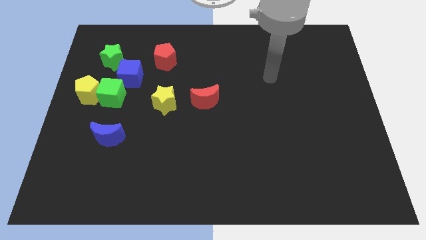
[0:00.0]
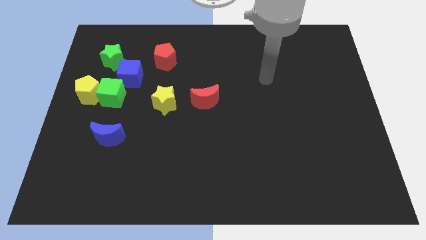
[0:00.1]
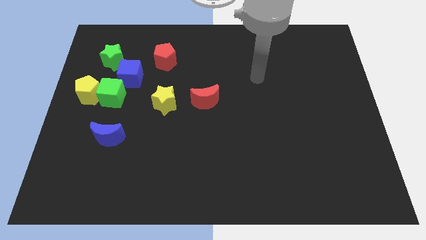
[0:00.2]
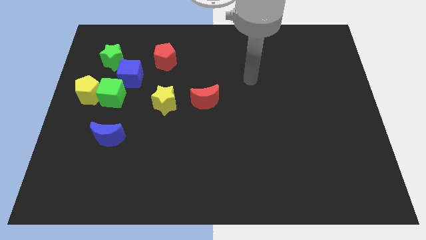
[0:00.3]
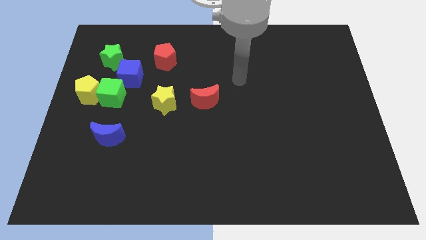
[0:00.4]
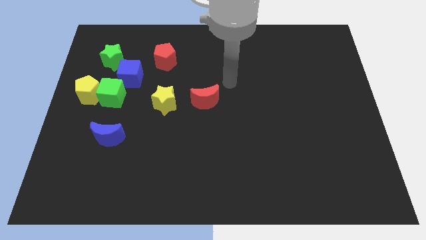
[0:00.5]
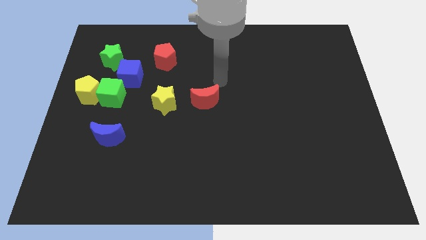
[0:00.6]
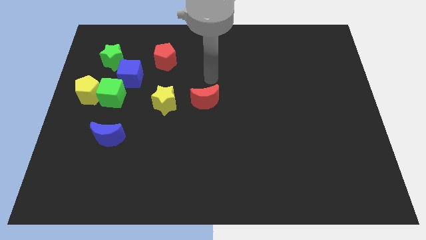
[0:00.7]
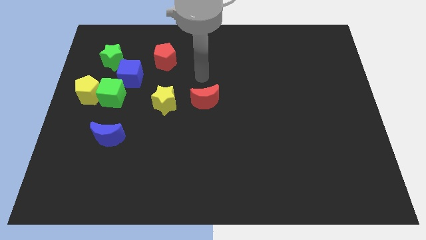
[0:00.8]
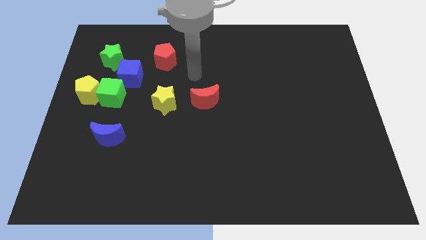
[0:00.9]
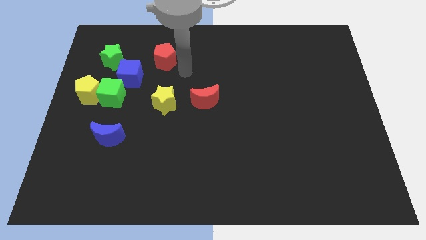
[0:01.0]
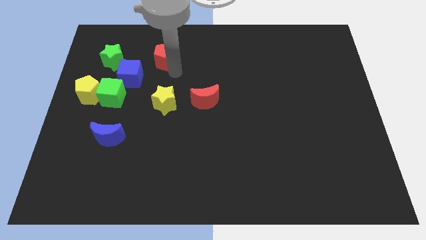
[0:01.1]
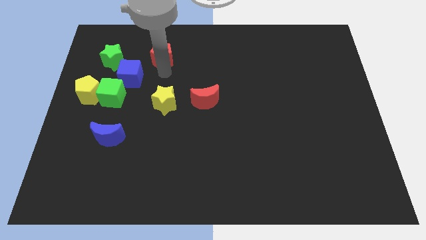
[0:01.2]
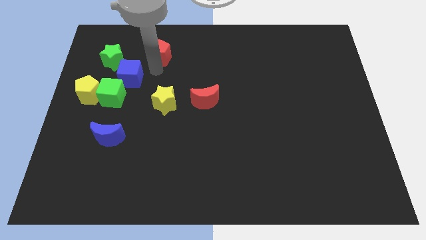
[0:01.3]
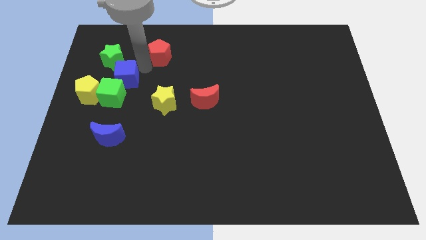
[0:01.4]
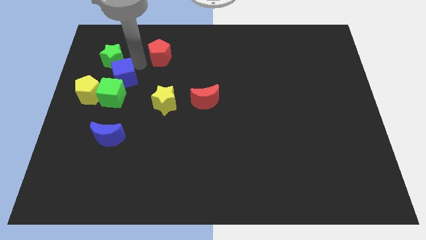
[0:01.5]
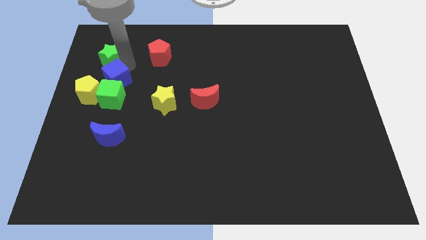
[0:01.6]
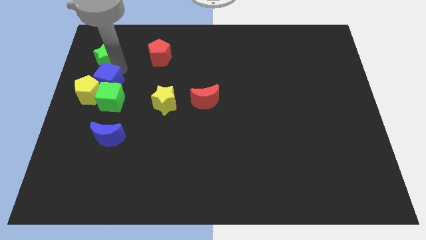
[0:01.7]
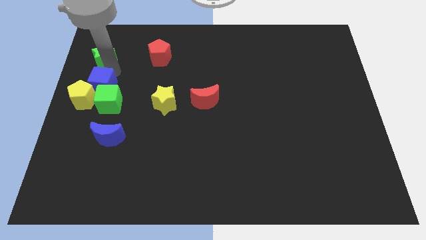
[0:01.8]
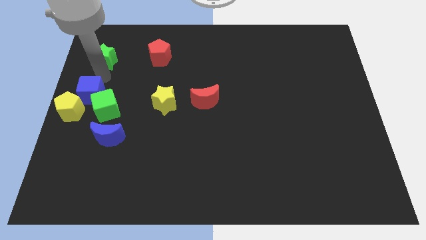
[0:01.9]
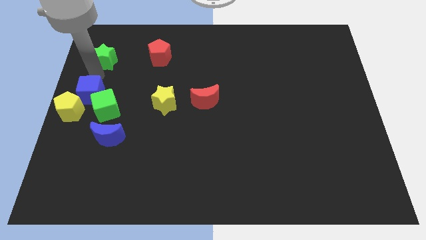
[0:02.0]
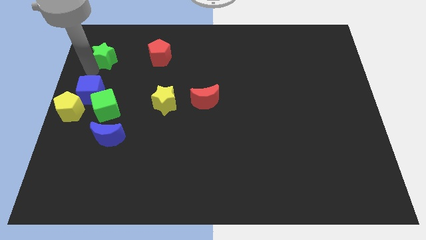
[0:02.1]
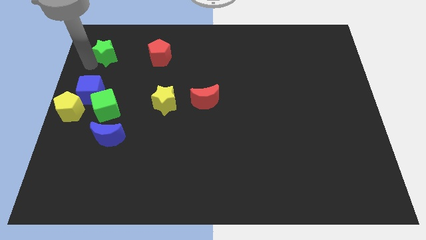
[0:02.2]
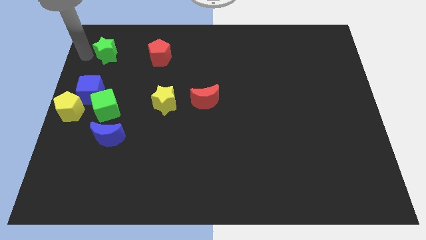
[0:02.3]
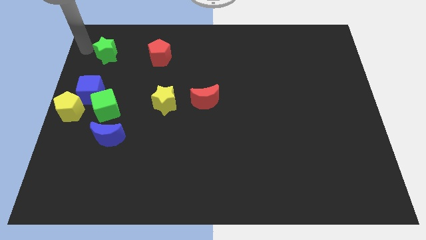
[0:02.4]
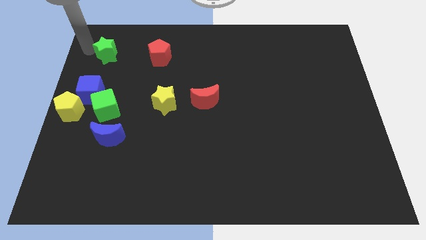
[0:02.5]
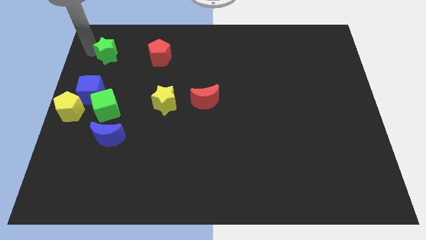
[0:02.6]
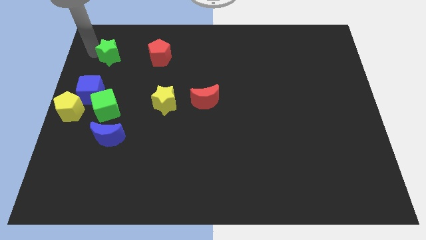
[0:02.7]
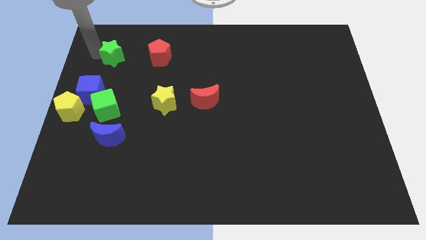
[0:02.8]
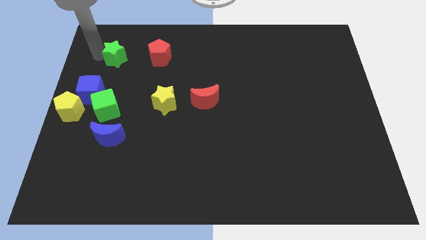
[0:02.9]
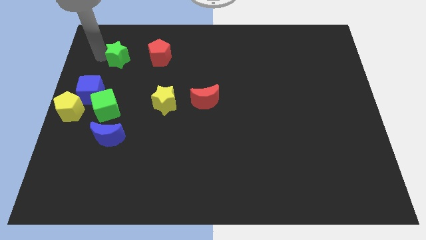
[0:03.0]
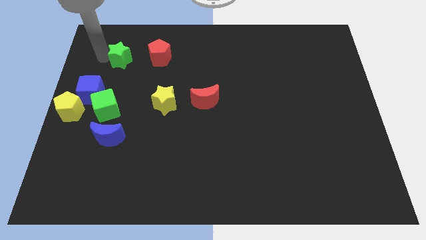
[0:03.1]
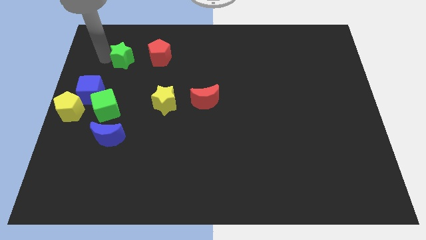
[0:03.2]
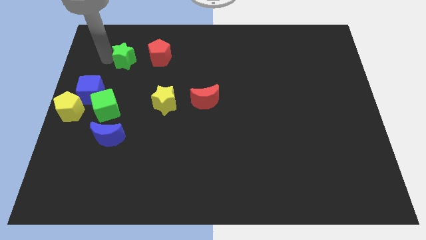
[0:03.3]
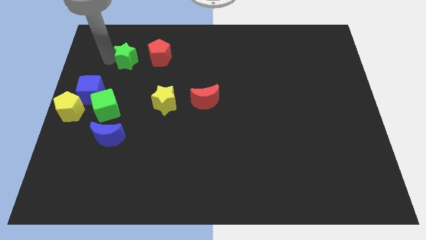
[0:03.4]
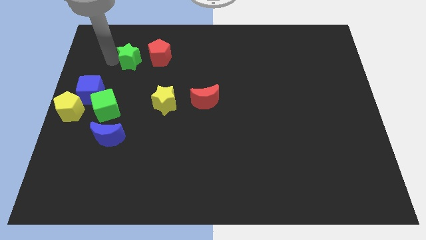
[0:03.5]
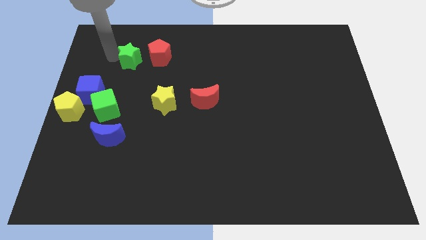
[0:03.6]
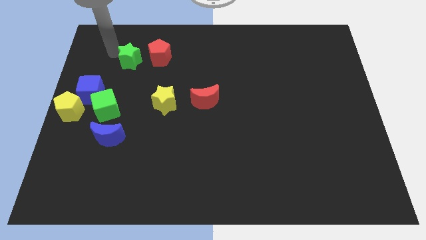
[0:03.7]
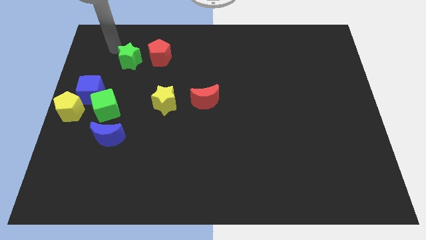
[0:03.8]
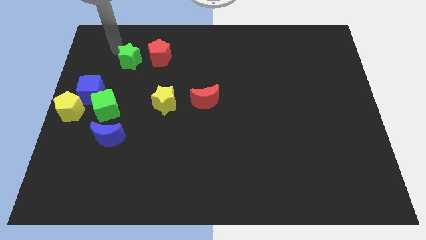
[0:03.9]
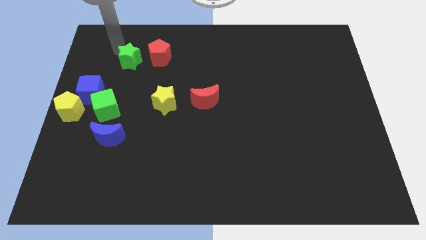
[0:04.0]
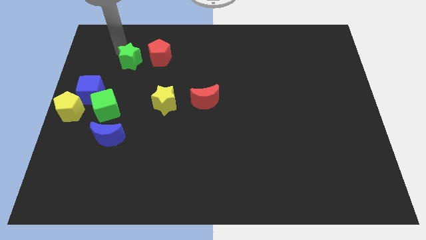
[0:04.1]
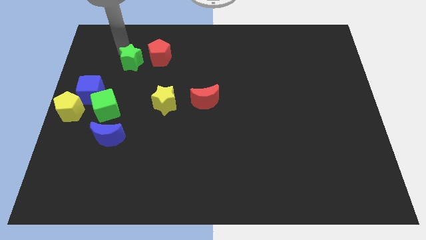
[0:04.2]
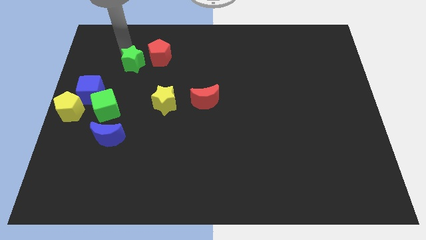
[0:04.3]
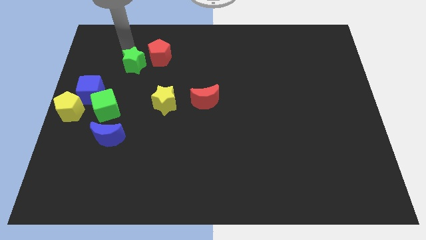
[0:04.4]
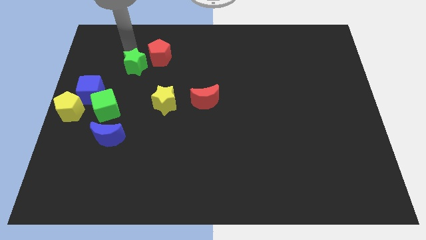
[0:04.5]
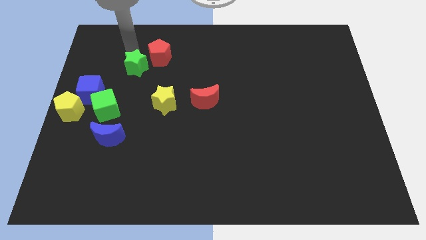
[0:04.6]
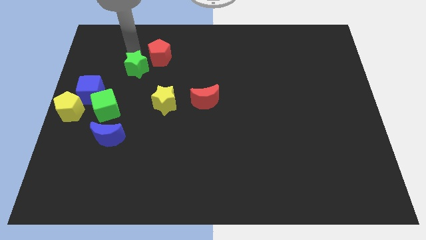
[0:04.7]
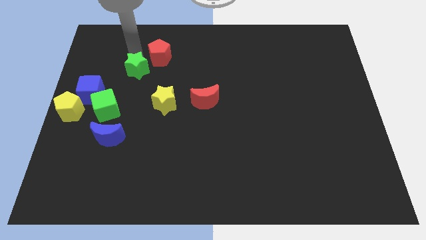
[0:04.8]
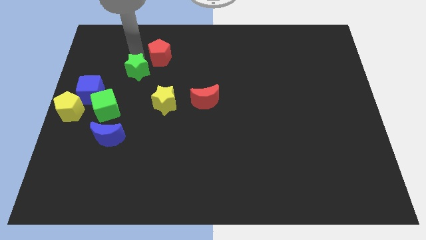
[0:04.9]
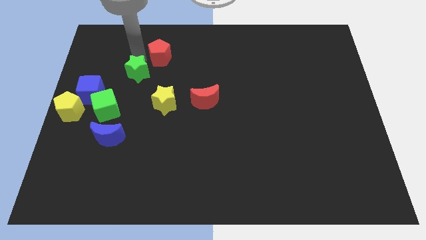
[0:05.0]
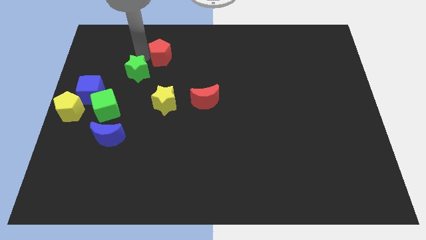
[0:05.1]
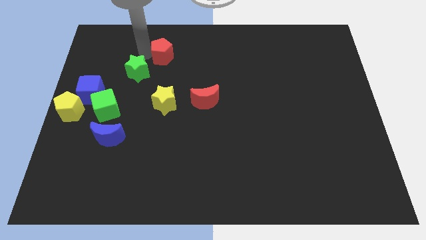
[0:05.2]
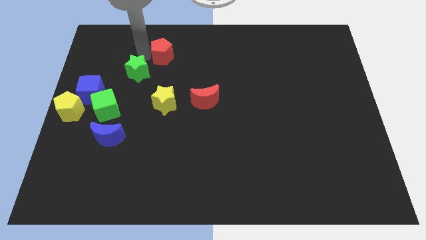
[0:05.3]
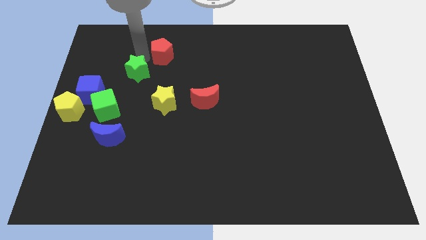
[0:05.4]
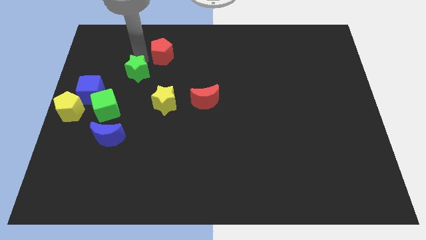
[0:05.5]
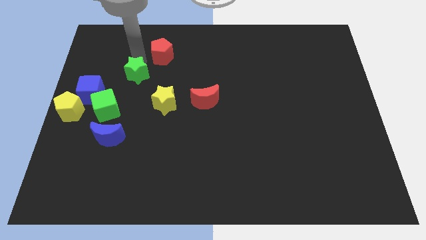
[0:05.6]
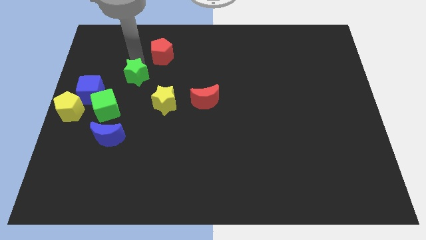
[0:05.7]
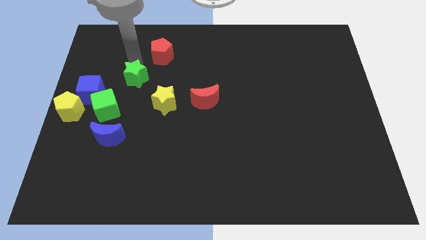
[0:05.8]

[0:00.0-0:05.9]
move the green star diagonally up and to the right of the green cube

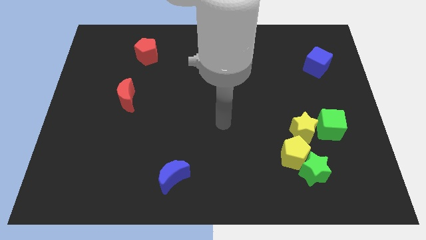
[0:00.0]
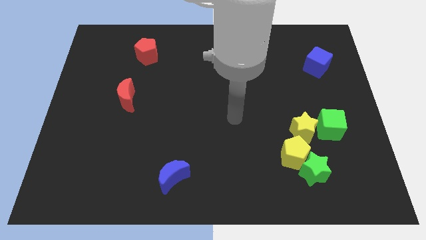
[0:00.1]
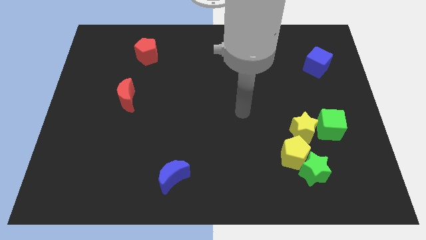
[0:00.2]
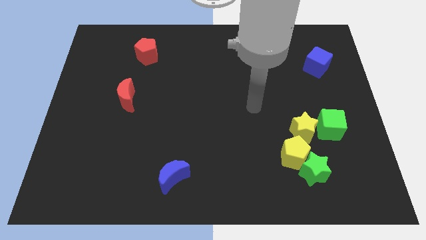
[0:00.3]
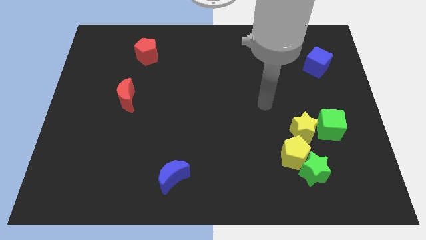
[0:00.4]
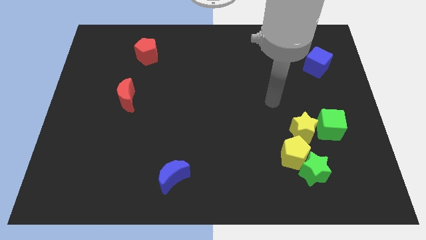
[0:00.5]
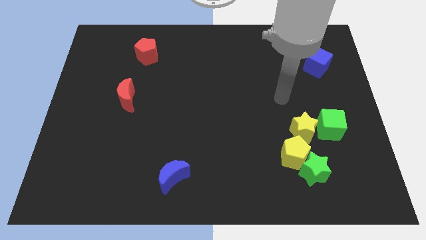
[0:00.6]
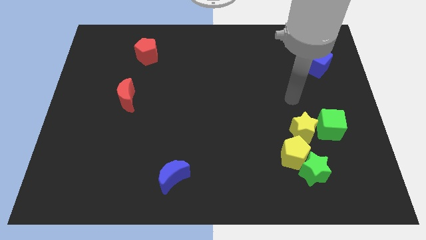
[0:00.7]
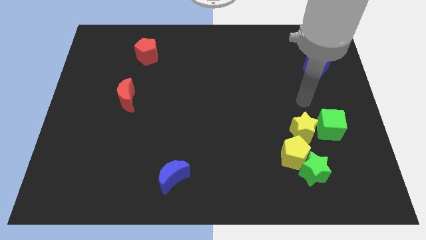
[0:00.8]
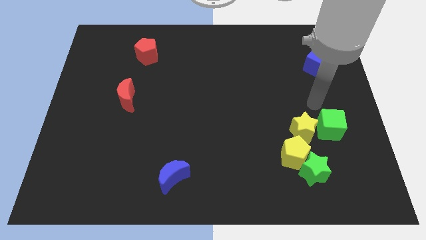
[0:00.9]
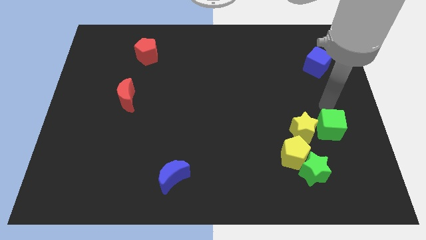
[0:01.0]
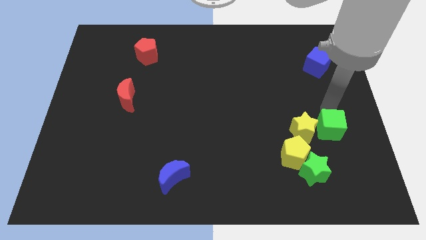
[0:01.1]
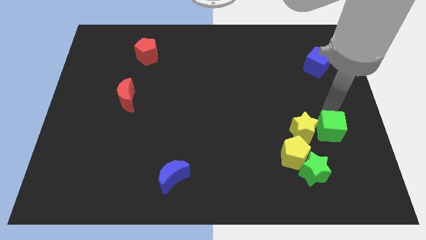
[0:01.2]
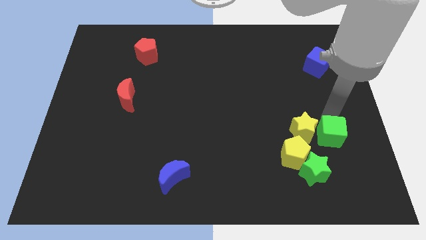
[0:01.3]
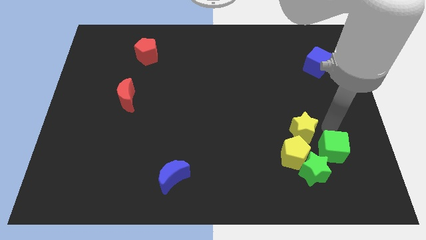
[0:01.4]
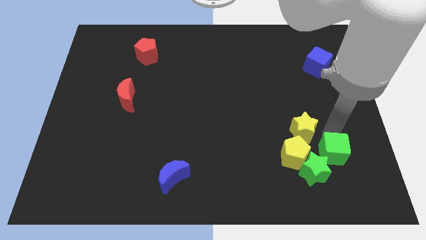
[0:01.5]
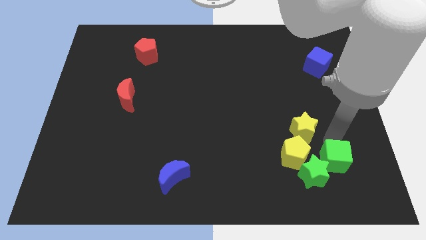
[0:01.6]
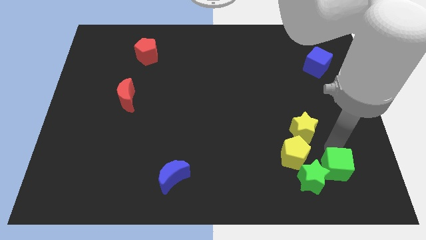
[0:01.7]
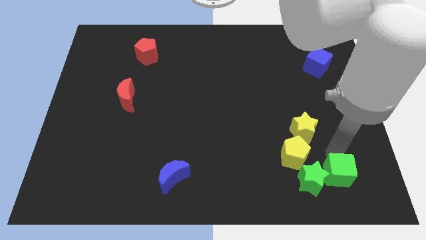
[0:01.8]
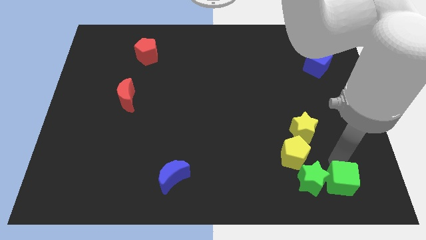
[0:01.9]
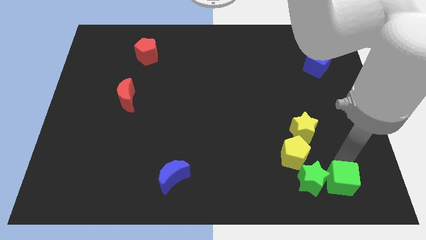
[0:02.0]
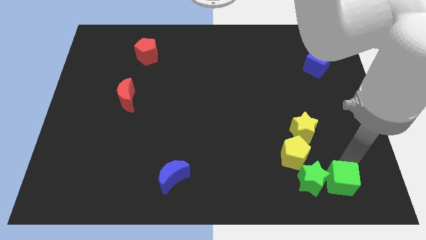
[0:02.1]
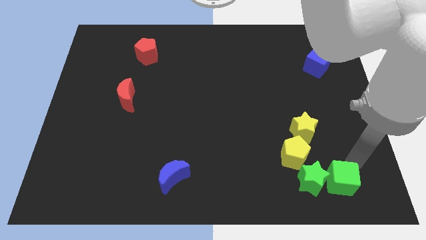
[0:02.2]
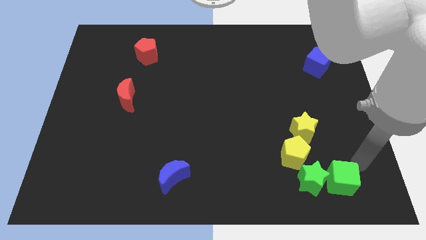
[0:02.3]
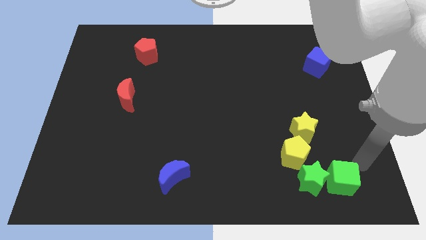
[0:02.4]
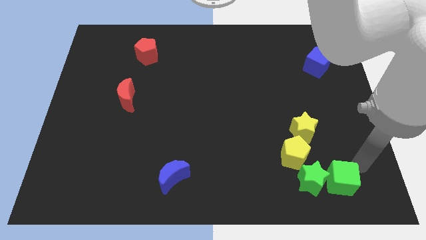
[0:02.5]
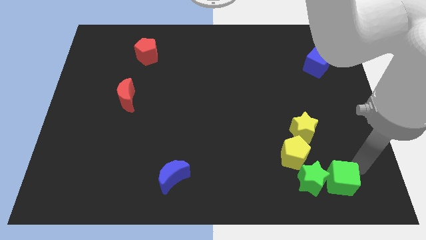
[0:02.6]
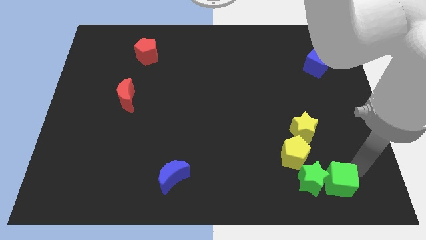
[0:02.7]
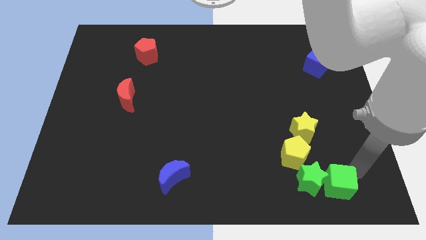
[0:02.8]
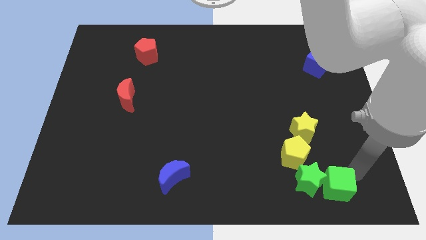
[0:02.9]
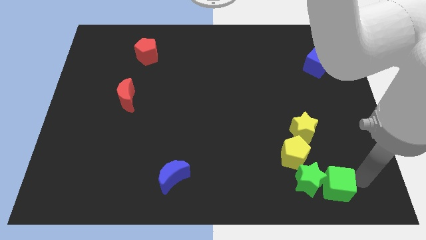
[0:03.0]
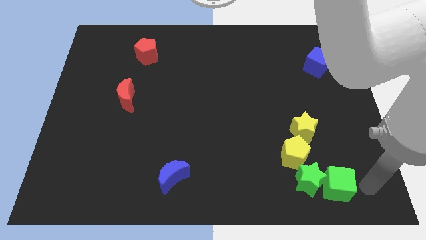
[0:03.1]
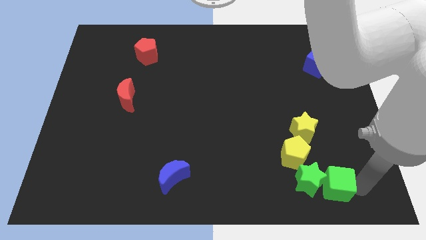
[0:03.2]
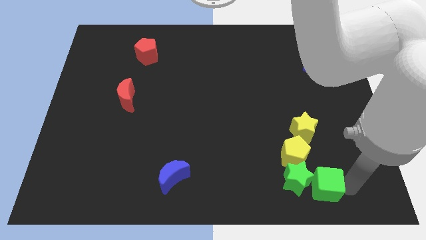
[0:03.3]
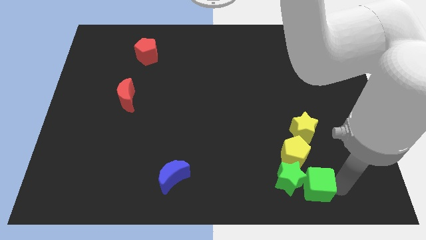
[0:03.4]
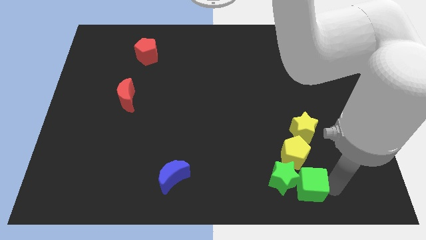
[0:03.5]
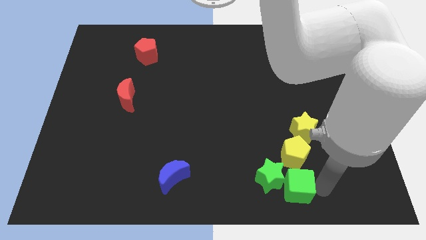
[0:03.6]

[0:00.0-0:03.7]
push the green cube diagonally down and to the left of the yellow pentagon
